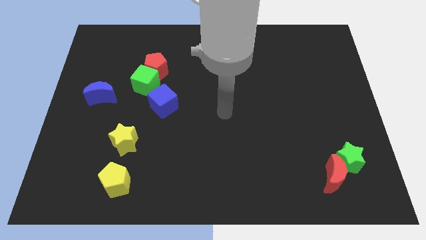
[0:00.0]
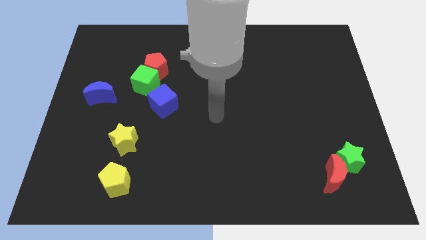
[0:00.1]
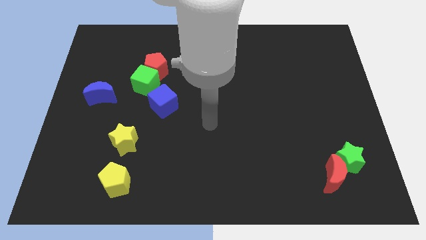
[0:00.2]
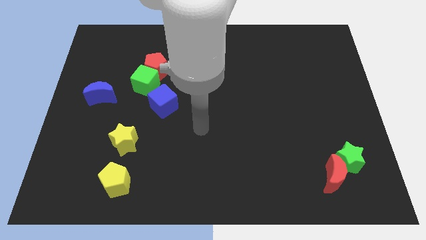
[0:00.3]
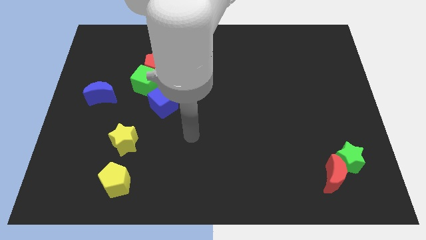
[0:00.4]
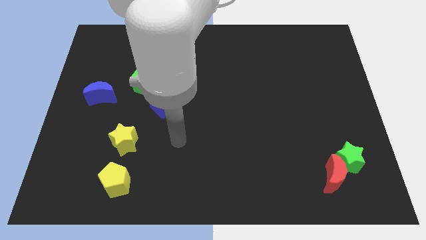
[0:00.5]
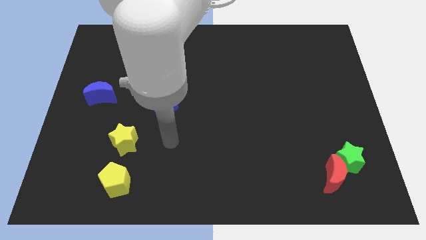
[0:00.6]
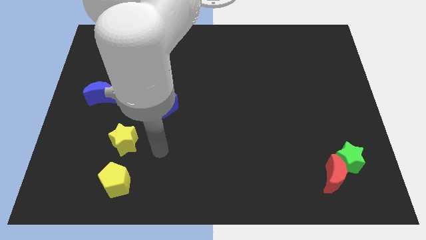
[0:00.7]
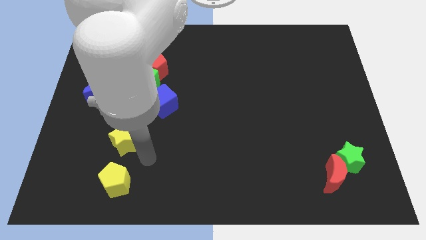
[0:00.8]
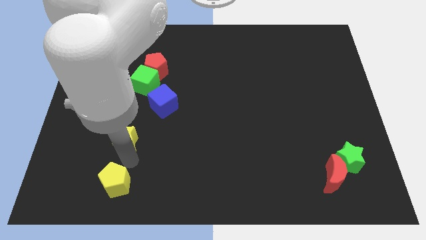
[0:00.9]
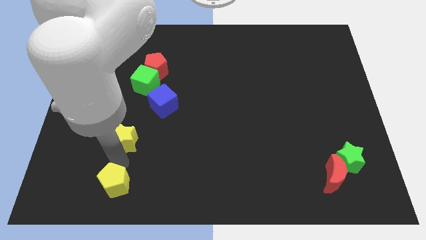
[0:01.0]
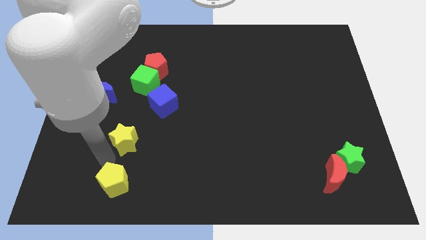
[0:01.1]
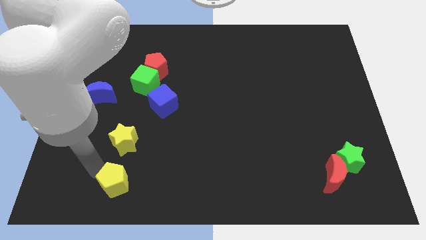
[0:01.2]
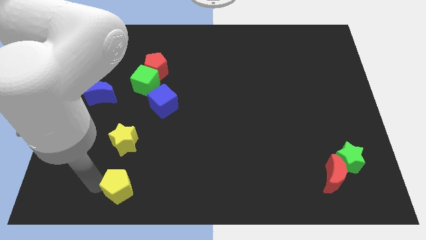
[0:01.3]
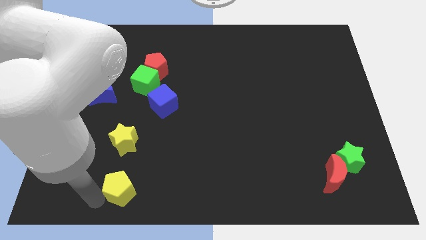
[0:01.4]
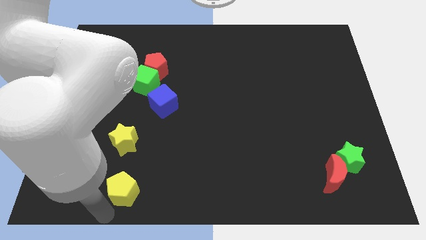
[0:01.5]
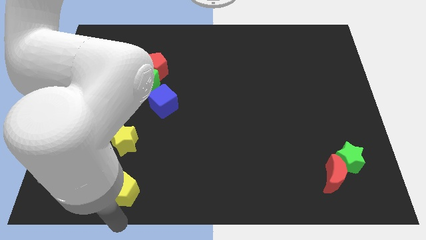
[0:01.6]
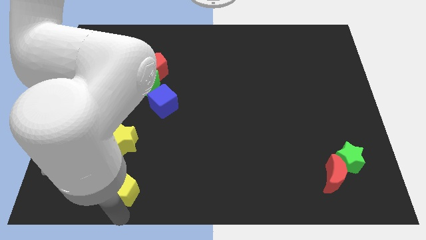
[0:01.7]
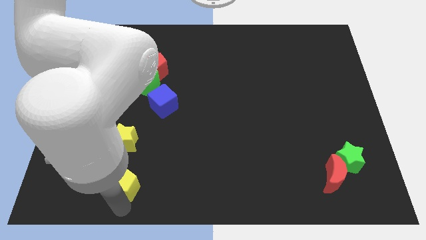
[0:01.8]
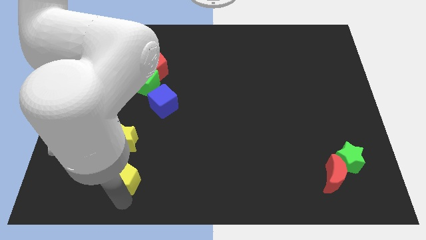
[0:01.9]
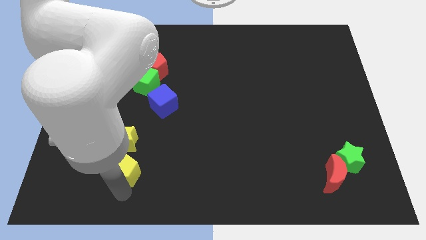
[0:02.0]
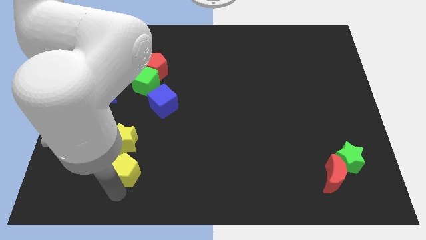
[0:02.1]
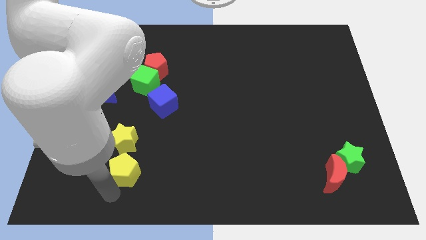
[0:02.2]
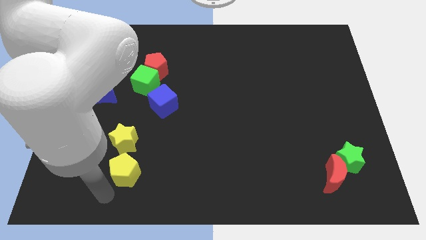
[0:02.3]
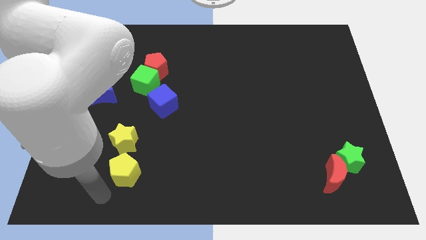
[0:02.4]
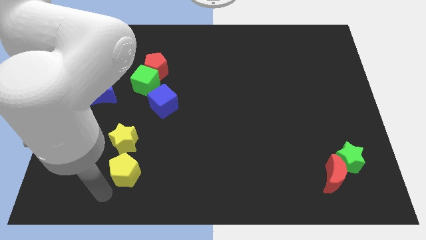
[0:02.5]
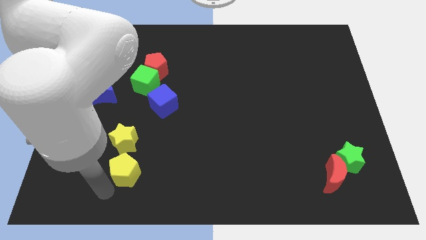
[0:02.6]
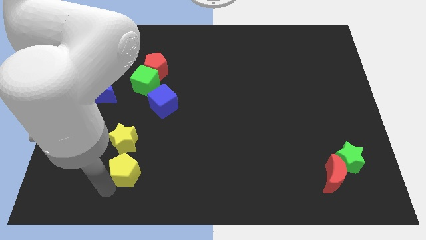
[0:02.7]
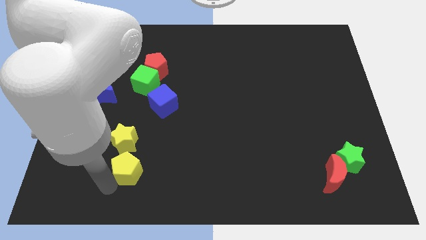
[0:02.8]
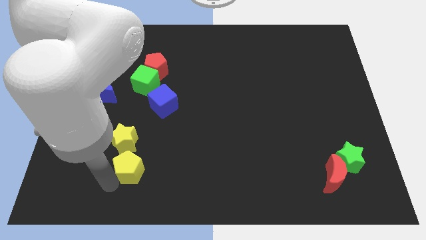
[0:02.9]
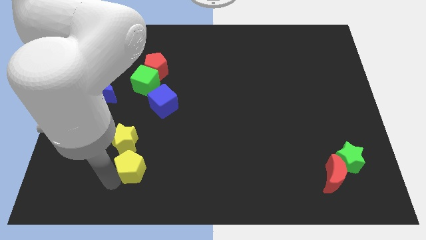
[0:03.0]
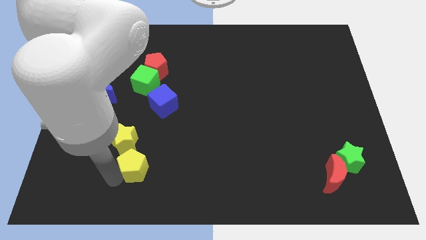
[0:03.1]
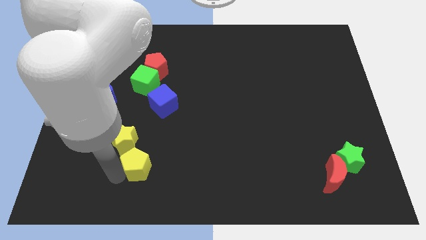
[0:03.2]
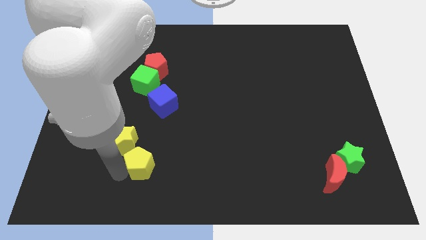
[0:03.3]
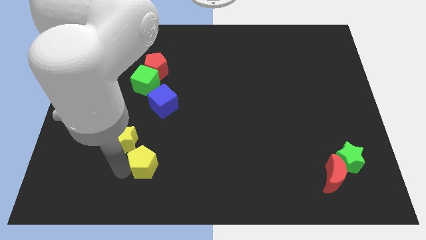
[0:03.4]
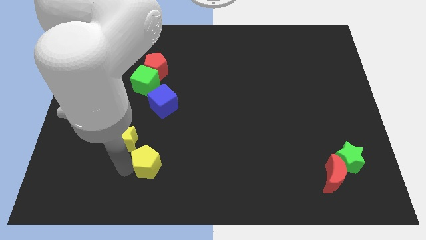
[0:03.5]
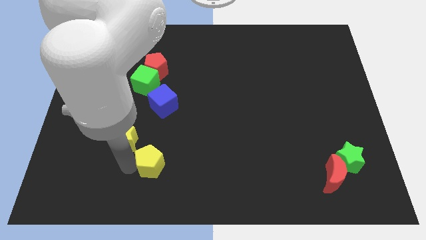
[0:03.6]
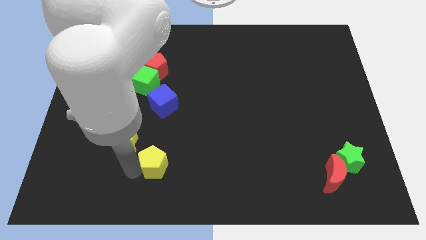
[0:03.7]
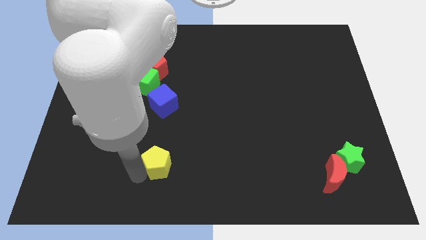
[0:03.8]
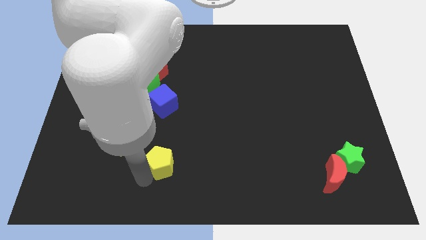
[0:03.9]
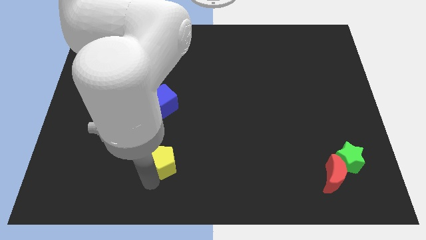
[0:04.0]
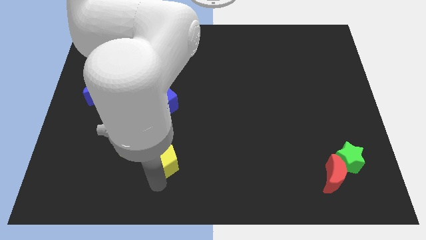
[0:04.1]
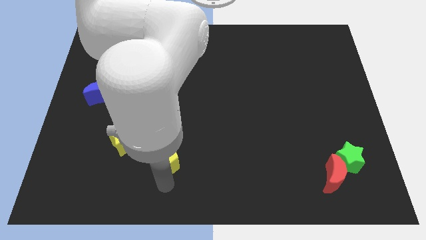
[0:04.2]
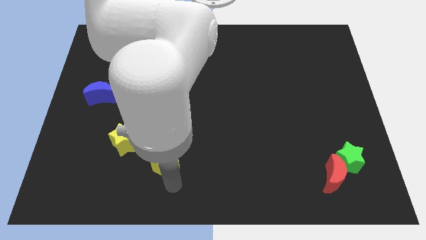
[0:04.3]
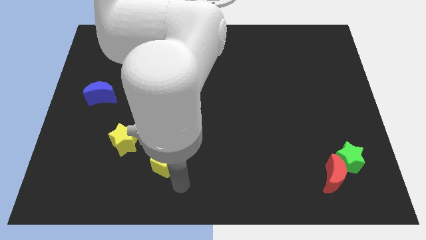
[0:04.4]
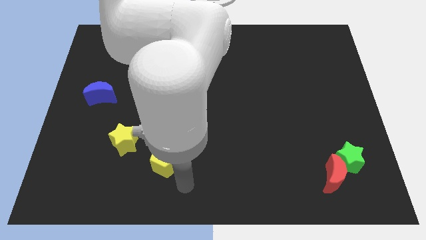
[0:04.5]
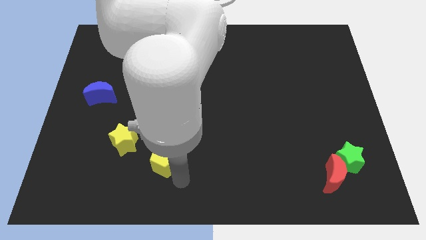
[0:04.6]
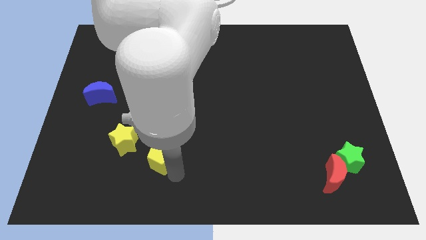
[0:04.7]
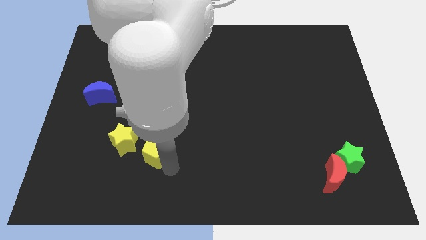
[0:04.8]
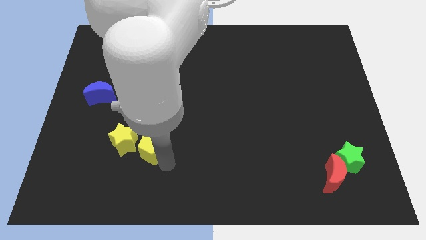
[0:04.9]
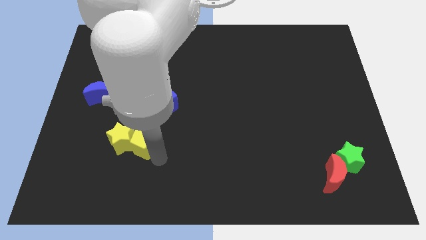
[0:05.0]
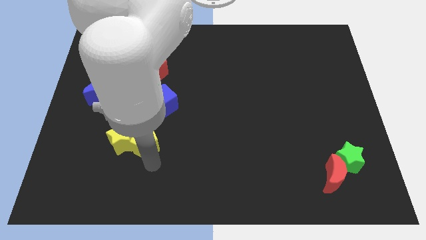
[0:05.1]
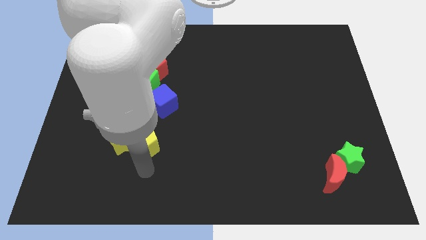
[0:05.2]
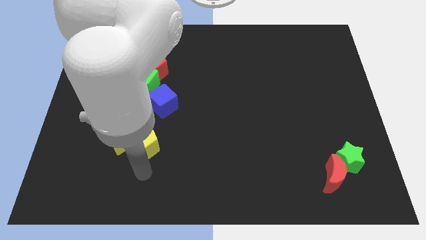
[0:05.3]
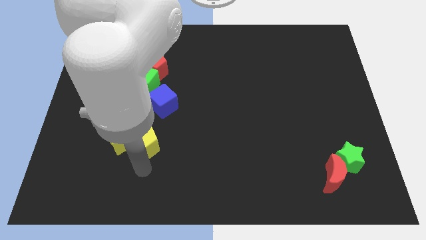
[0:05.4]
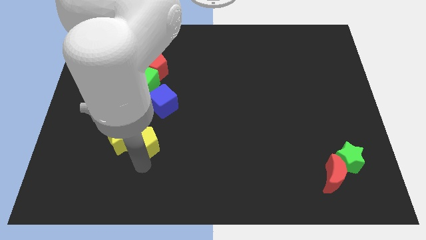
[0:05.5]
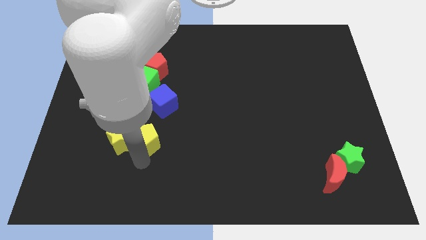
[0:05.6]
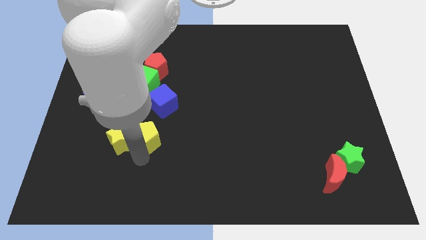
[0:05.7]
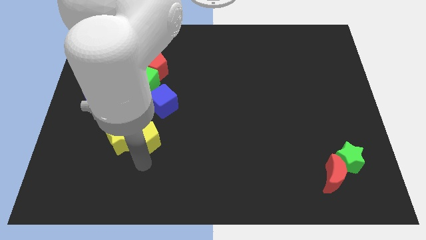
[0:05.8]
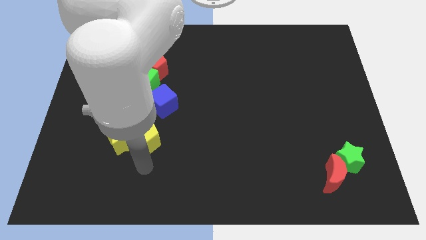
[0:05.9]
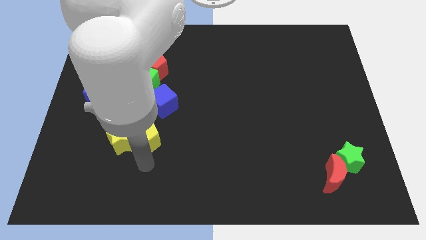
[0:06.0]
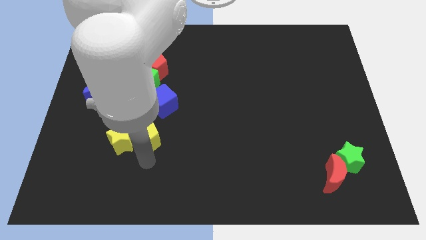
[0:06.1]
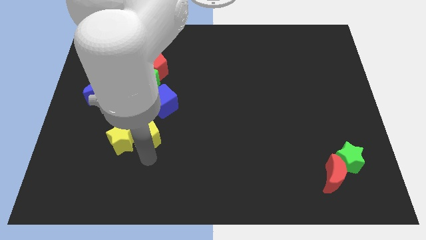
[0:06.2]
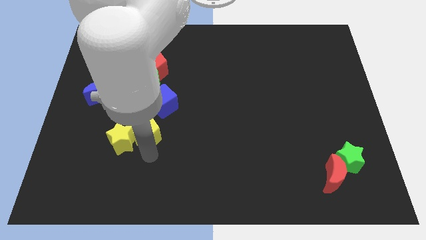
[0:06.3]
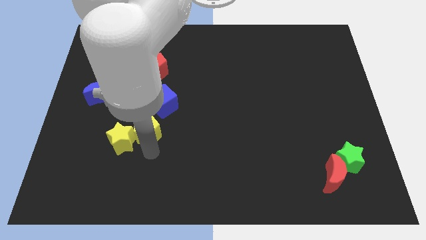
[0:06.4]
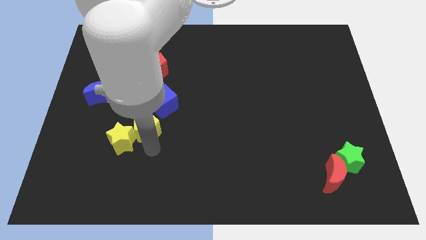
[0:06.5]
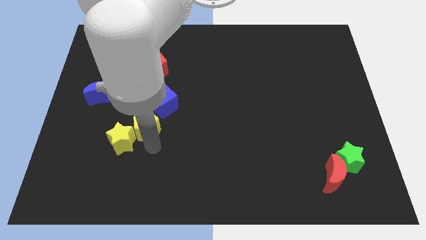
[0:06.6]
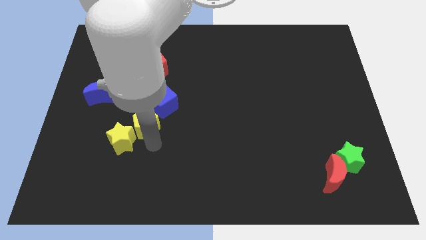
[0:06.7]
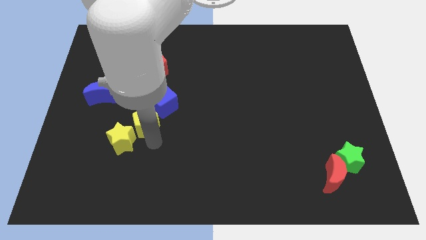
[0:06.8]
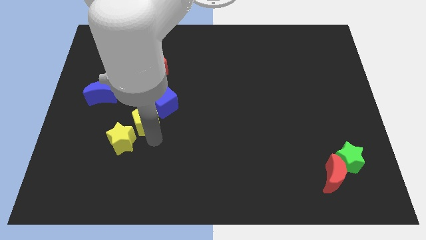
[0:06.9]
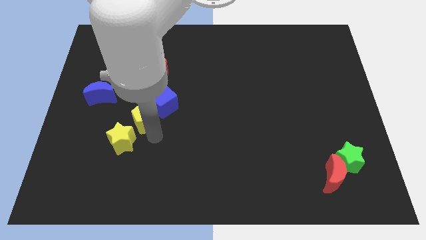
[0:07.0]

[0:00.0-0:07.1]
slide the yellow pentagon to the bottom of the red pentagon
